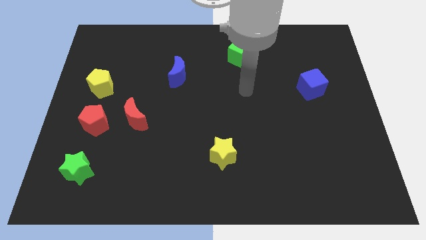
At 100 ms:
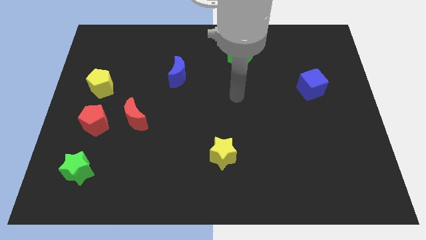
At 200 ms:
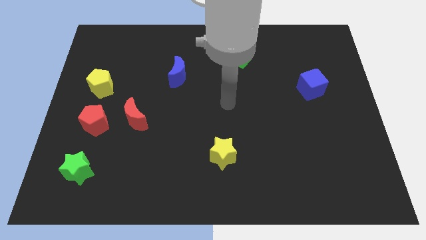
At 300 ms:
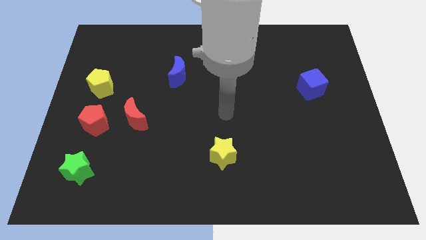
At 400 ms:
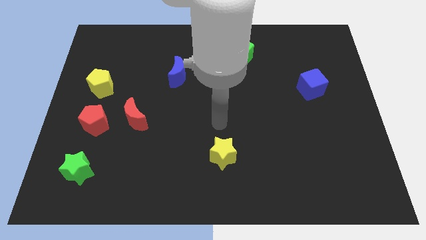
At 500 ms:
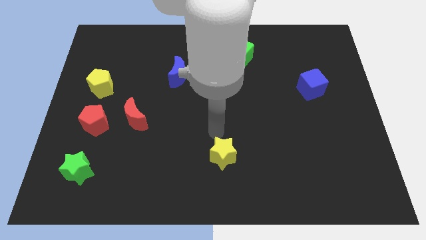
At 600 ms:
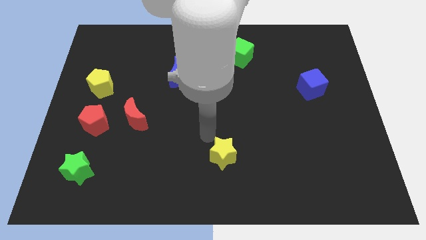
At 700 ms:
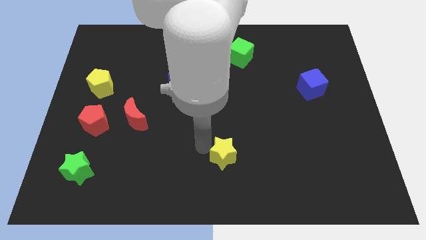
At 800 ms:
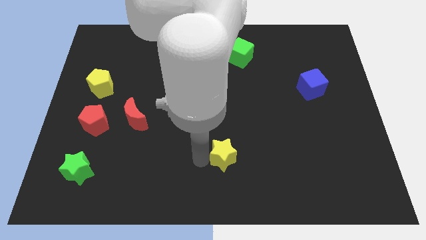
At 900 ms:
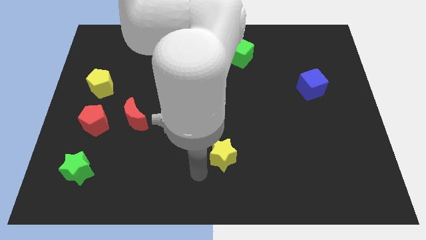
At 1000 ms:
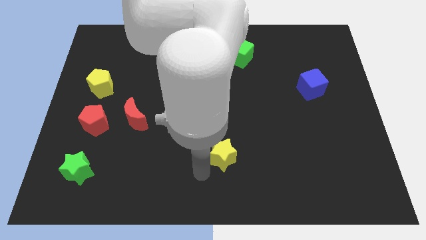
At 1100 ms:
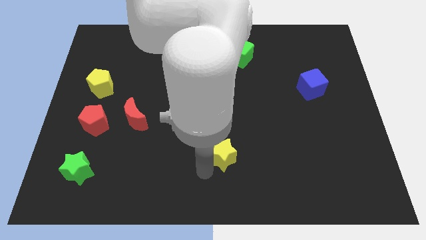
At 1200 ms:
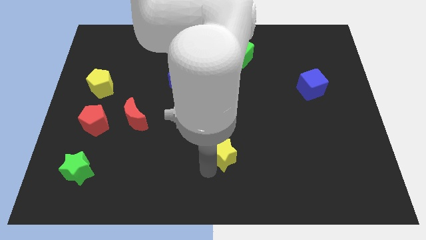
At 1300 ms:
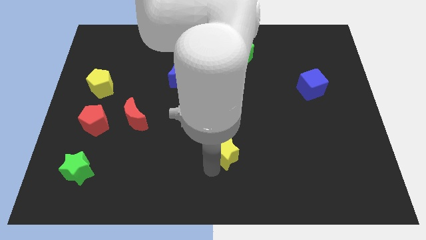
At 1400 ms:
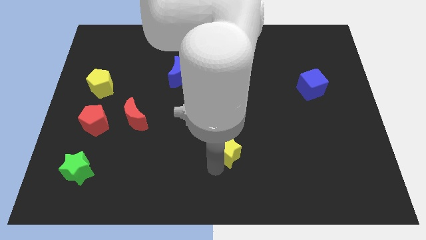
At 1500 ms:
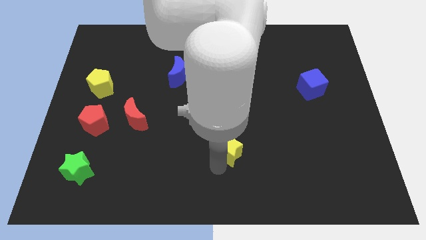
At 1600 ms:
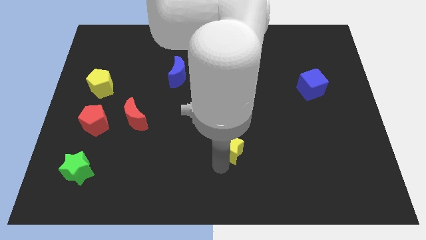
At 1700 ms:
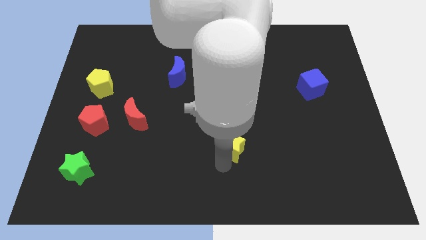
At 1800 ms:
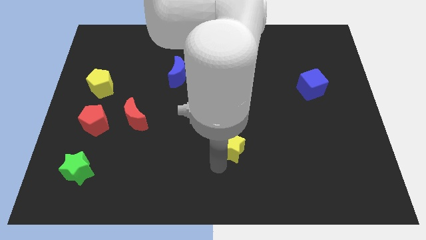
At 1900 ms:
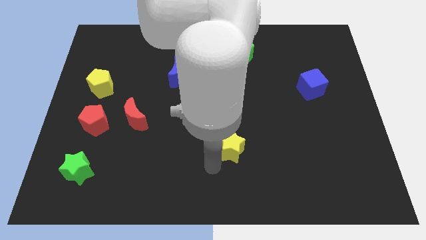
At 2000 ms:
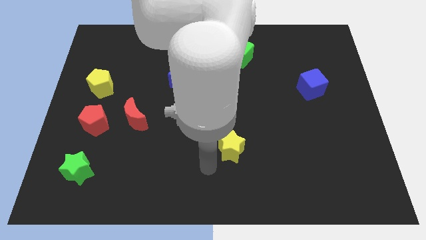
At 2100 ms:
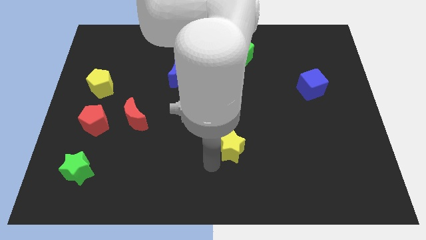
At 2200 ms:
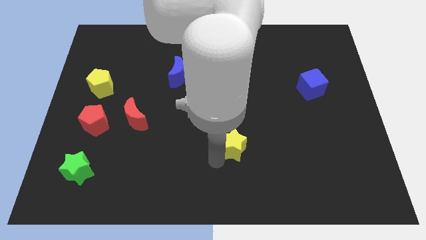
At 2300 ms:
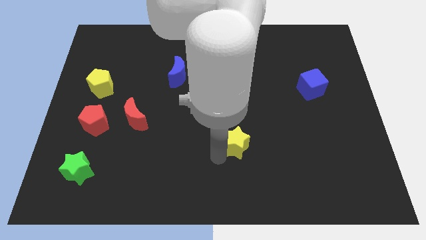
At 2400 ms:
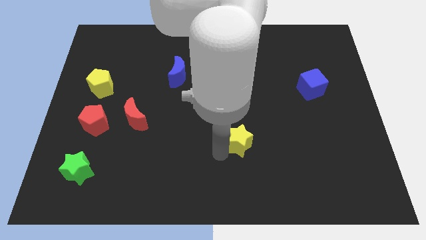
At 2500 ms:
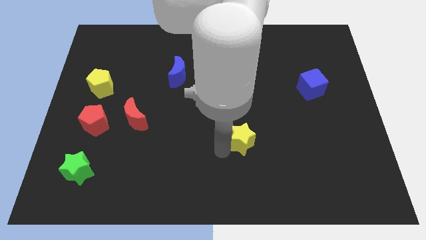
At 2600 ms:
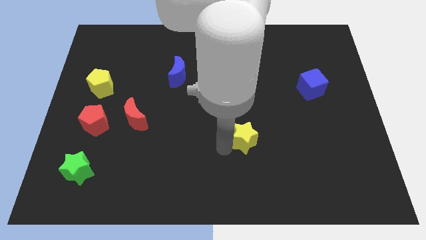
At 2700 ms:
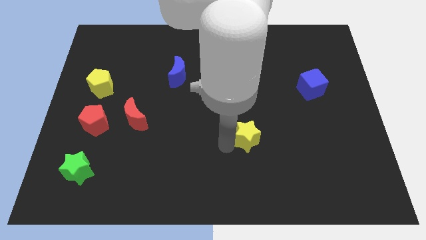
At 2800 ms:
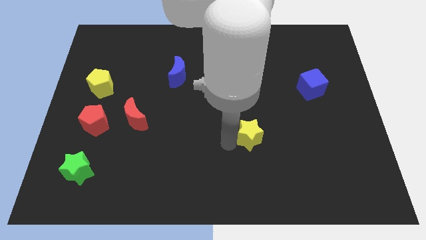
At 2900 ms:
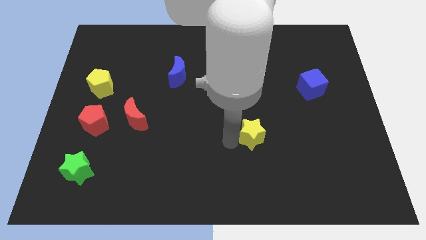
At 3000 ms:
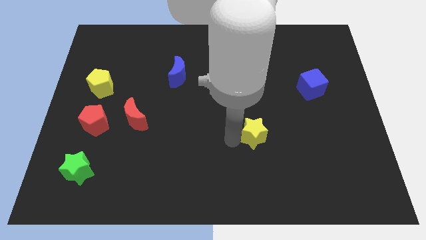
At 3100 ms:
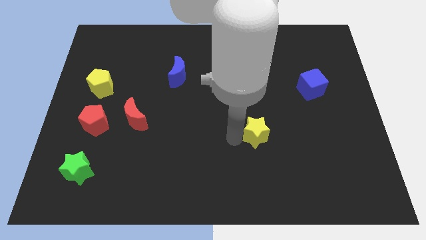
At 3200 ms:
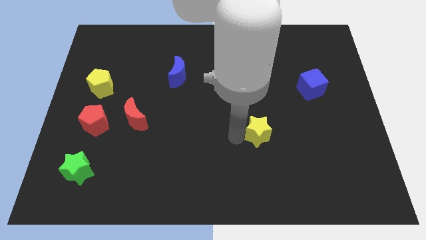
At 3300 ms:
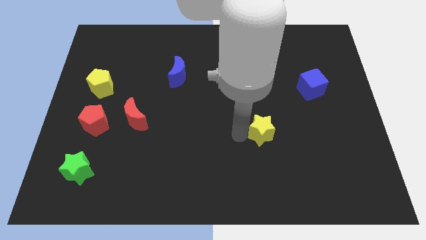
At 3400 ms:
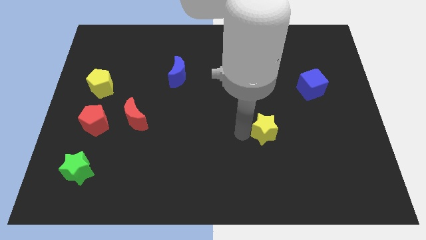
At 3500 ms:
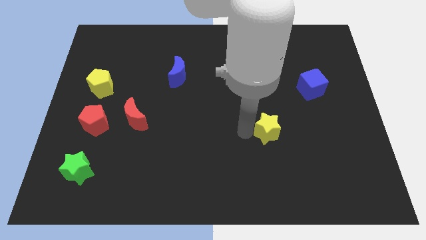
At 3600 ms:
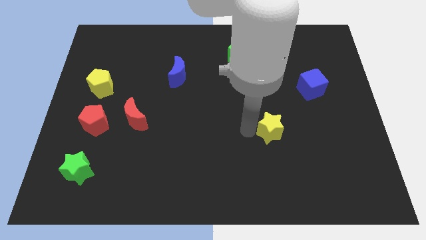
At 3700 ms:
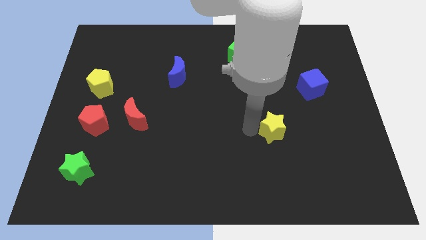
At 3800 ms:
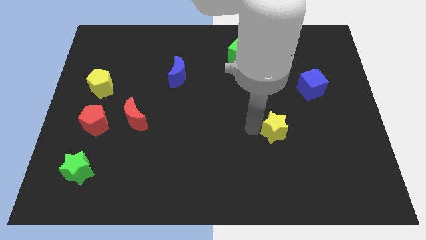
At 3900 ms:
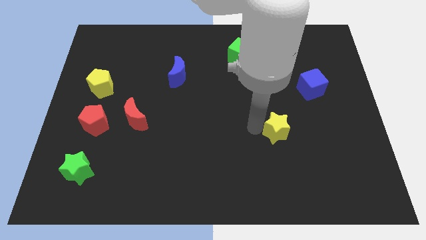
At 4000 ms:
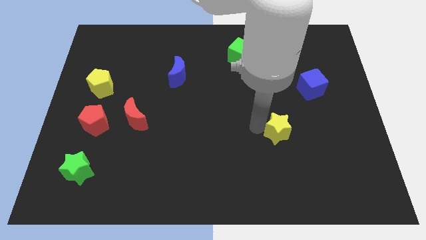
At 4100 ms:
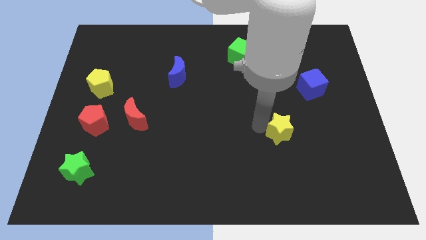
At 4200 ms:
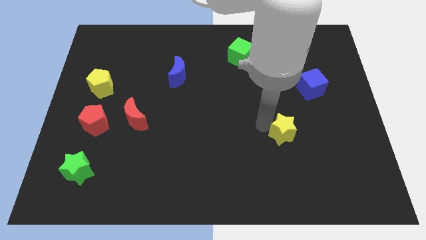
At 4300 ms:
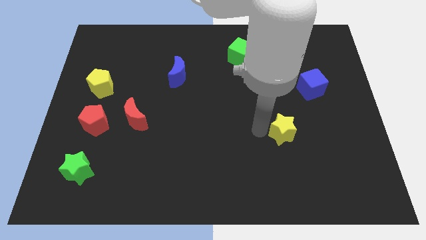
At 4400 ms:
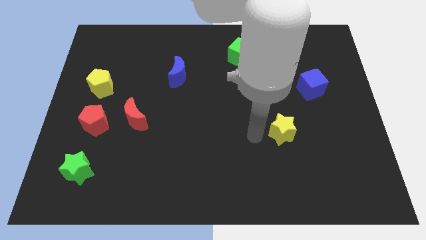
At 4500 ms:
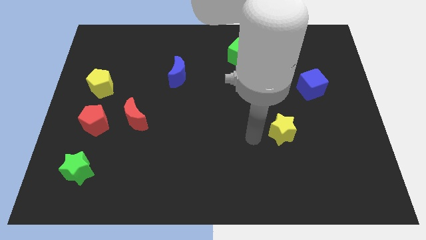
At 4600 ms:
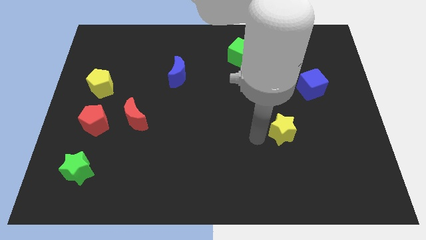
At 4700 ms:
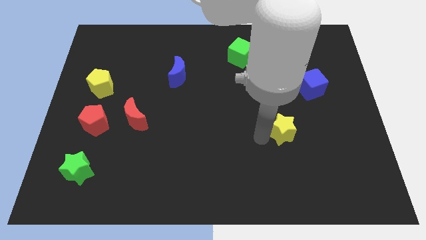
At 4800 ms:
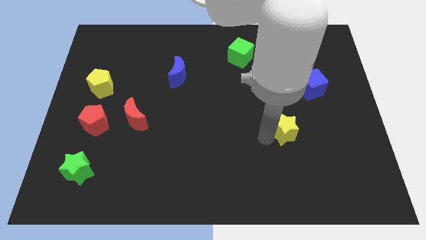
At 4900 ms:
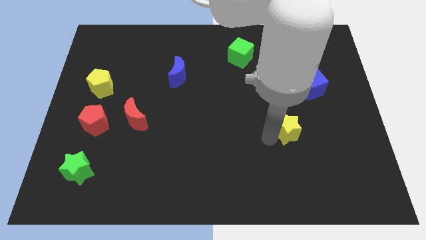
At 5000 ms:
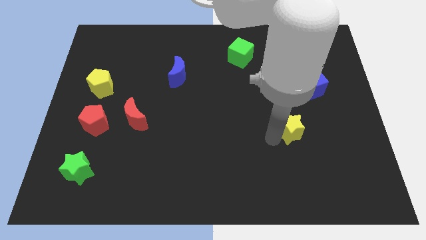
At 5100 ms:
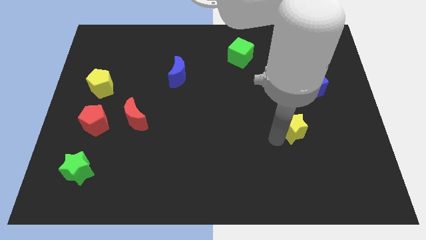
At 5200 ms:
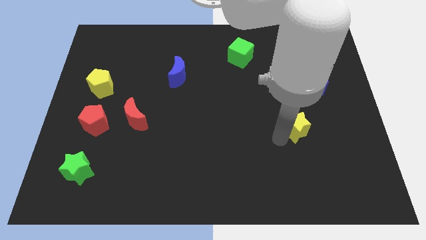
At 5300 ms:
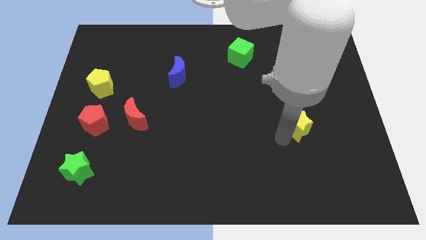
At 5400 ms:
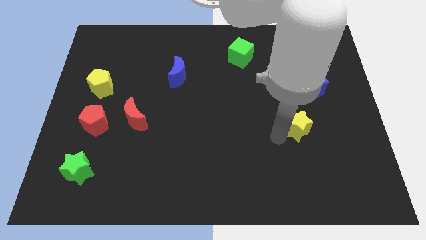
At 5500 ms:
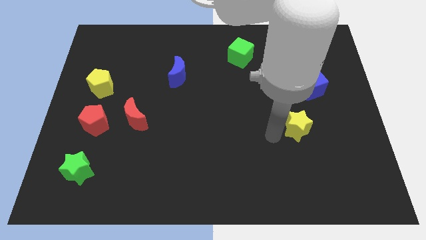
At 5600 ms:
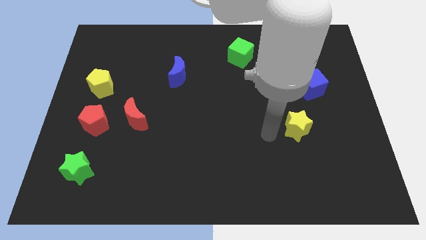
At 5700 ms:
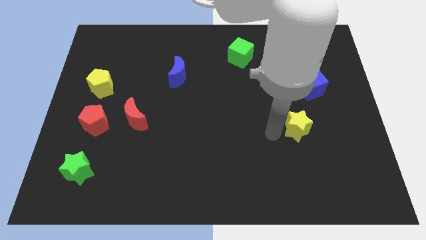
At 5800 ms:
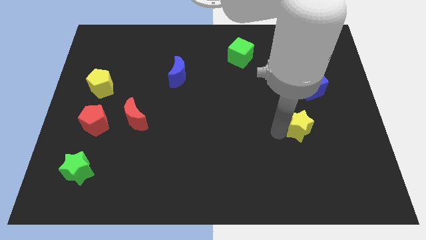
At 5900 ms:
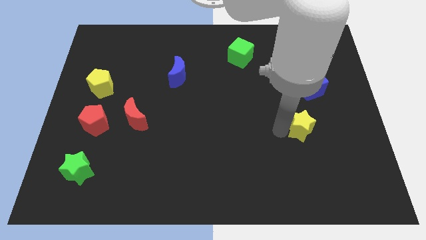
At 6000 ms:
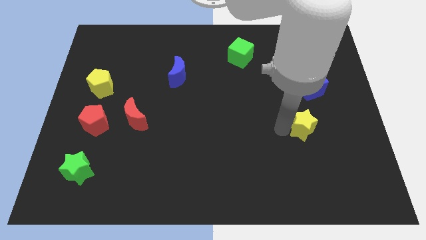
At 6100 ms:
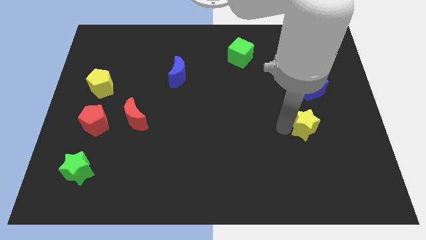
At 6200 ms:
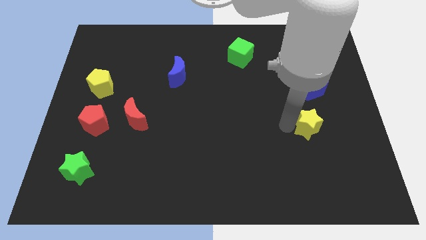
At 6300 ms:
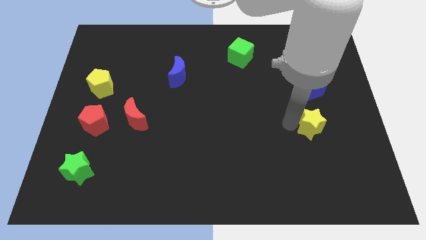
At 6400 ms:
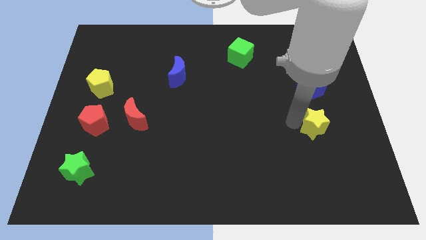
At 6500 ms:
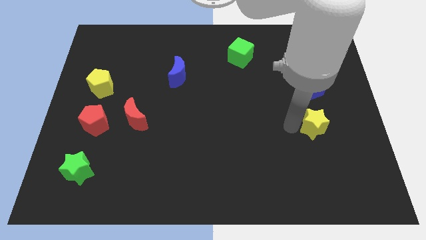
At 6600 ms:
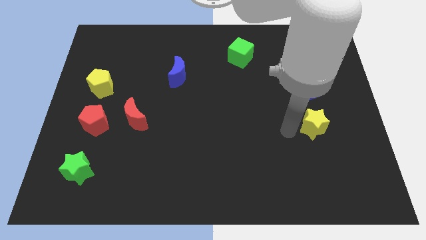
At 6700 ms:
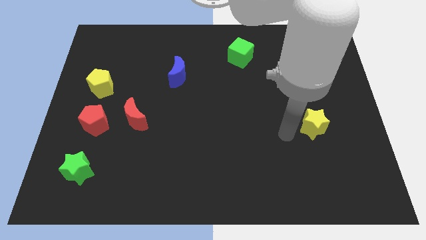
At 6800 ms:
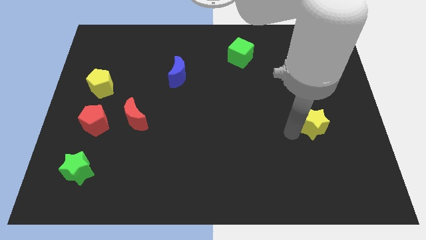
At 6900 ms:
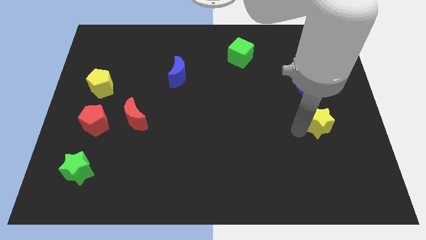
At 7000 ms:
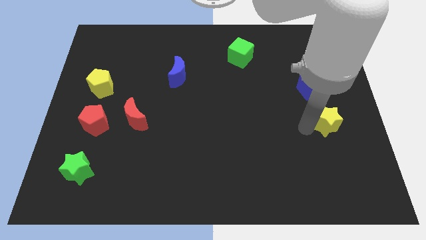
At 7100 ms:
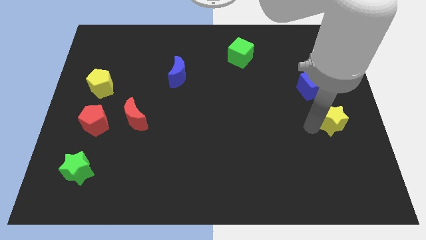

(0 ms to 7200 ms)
push the yellow star to the right side of the board
